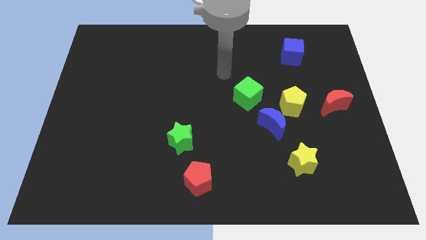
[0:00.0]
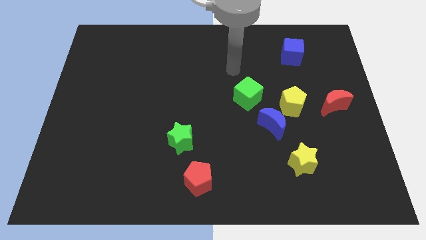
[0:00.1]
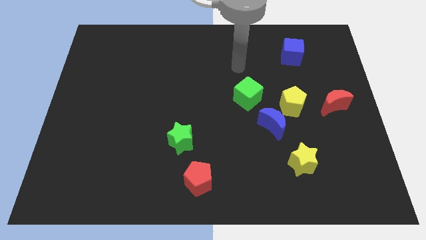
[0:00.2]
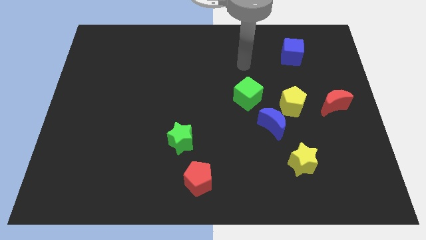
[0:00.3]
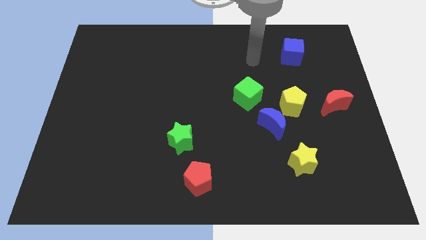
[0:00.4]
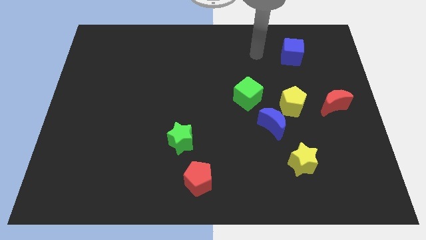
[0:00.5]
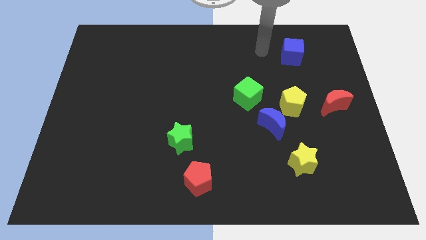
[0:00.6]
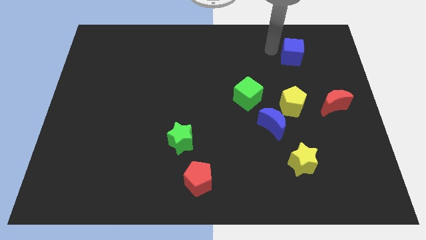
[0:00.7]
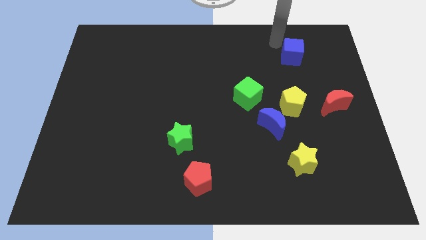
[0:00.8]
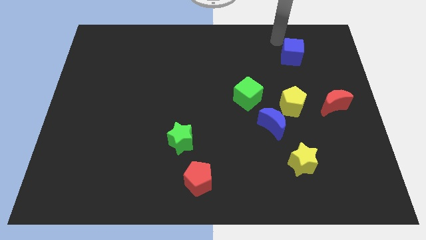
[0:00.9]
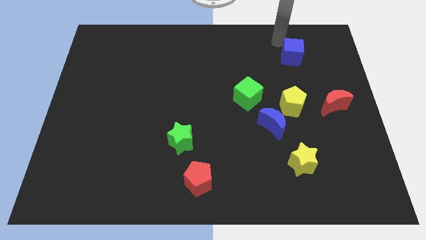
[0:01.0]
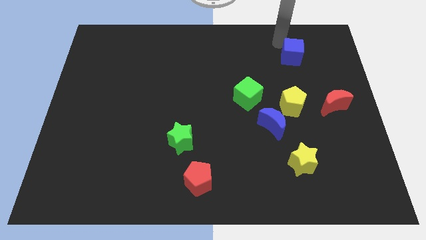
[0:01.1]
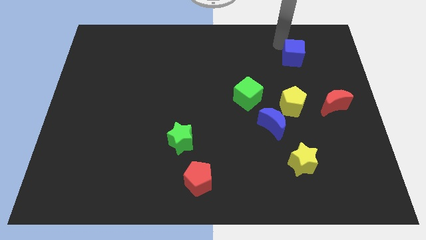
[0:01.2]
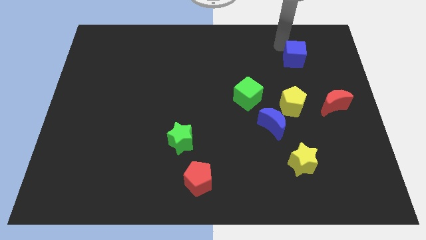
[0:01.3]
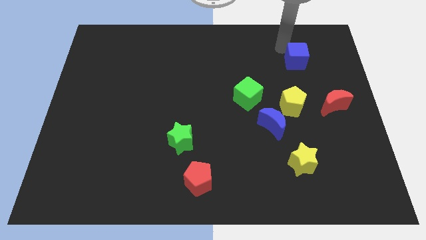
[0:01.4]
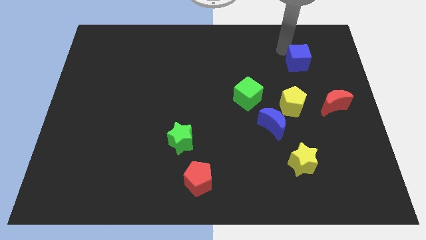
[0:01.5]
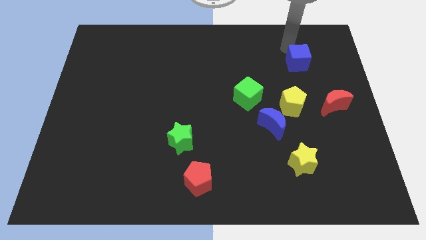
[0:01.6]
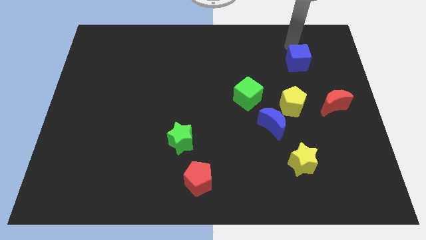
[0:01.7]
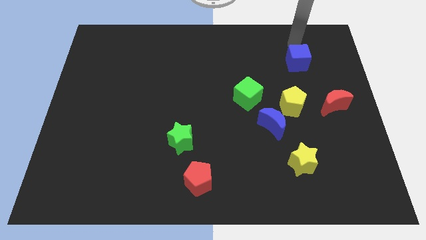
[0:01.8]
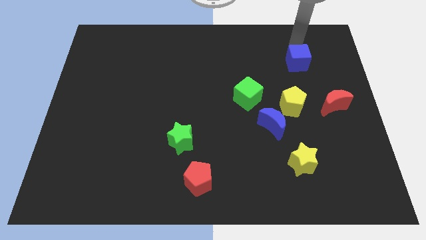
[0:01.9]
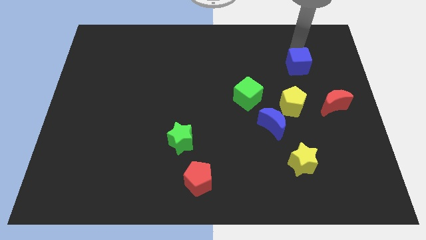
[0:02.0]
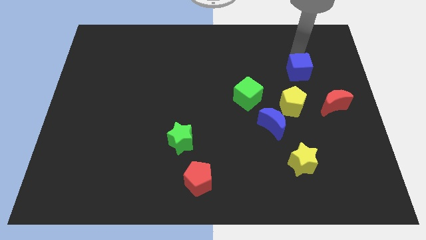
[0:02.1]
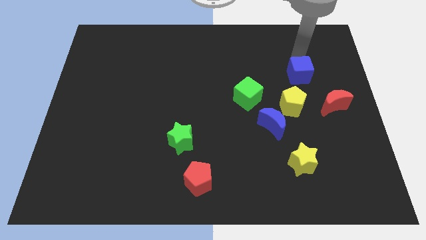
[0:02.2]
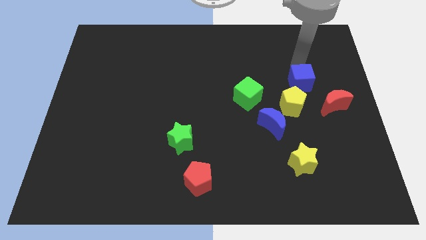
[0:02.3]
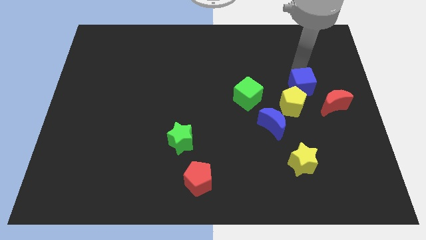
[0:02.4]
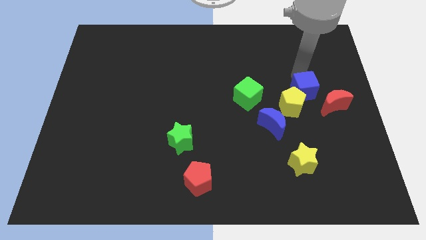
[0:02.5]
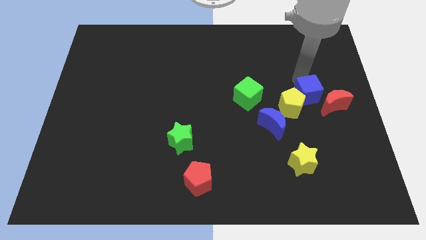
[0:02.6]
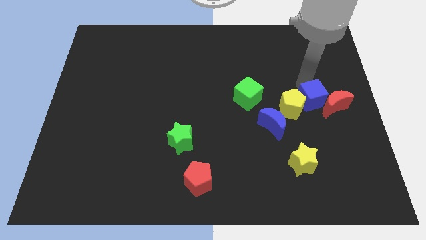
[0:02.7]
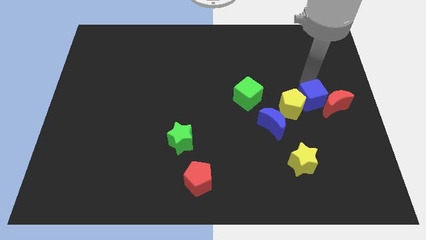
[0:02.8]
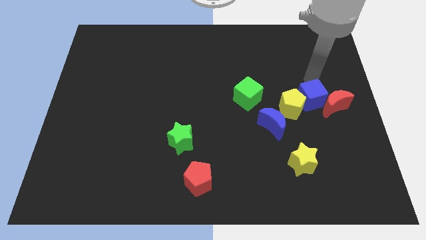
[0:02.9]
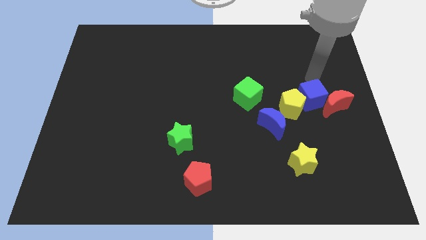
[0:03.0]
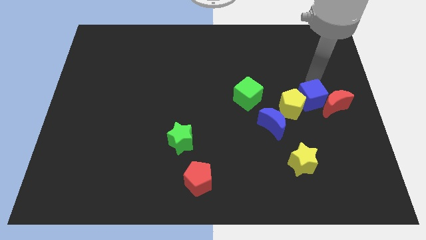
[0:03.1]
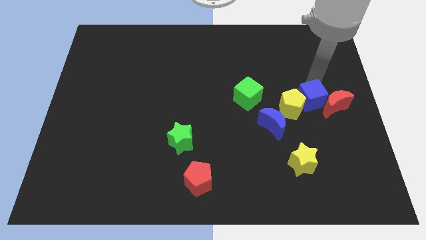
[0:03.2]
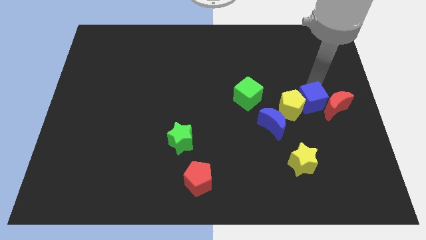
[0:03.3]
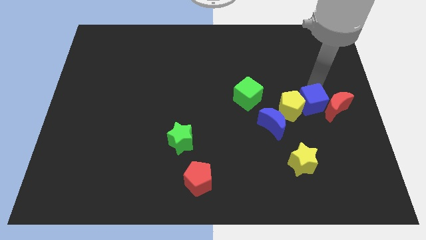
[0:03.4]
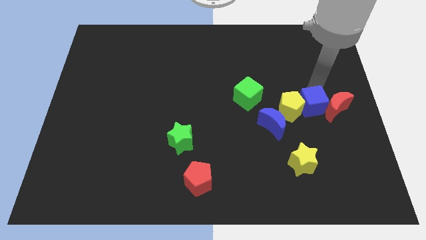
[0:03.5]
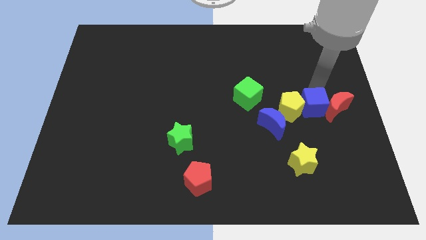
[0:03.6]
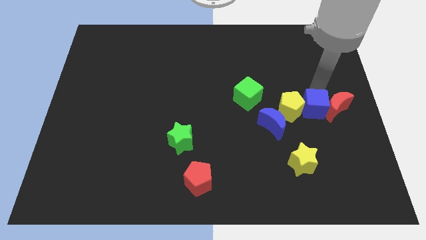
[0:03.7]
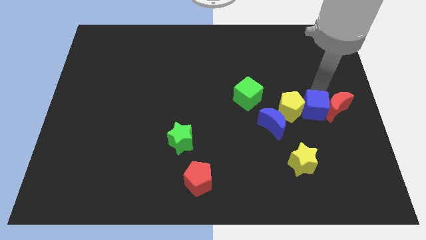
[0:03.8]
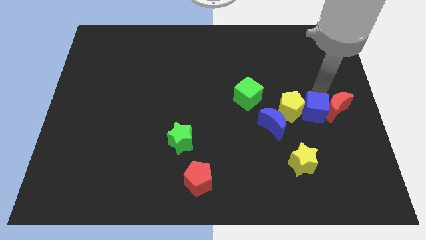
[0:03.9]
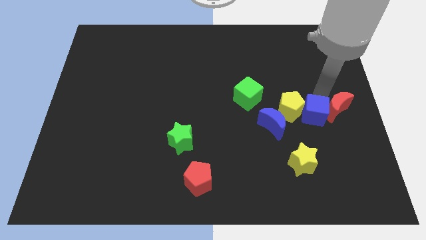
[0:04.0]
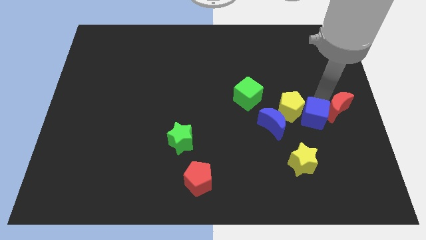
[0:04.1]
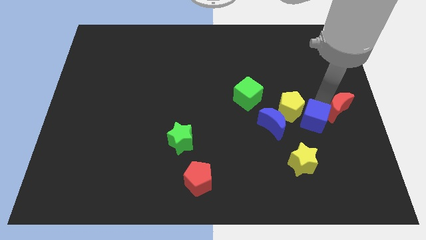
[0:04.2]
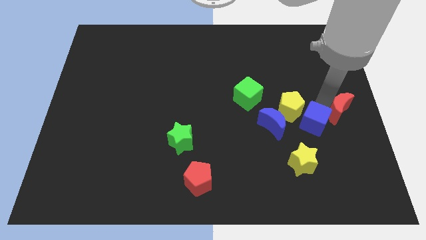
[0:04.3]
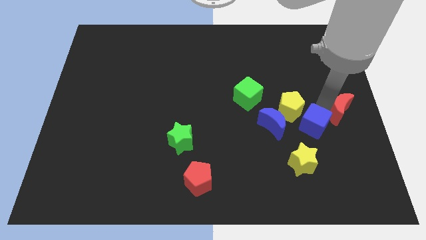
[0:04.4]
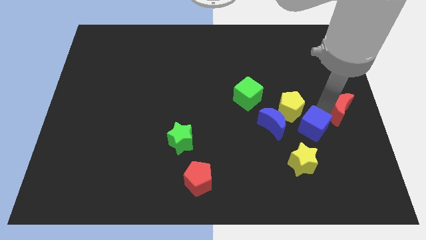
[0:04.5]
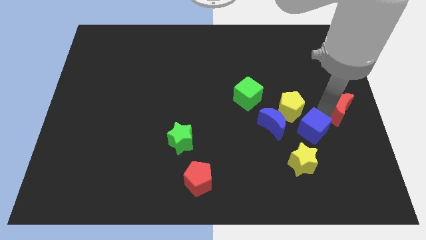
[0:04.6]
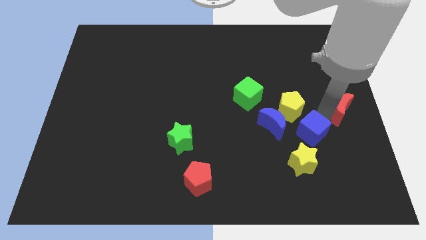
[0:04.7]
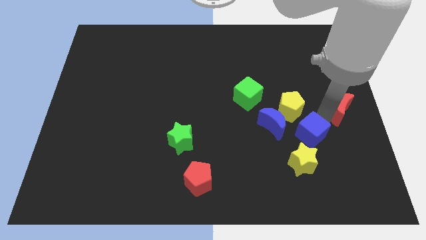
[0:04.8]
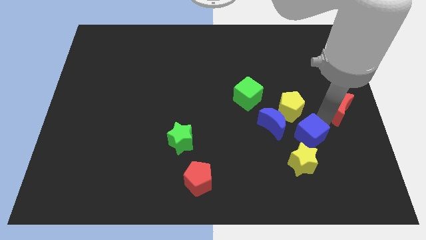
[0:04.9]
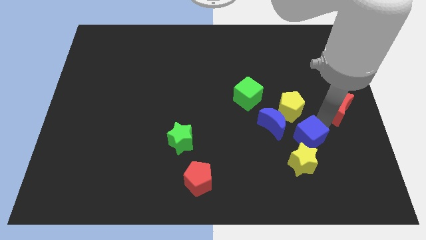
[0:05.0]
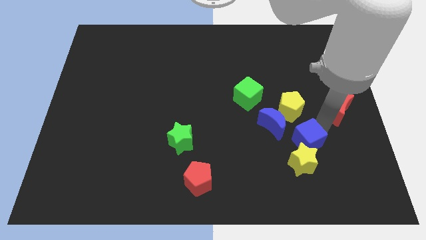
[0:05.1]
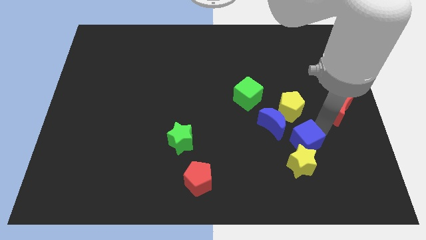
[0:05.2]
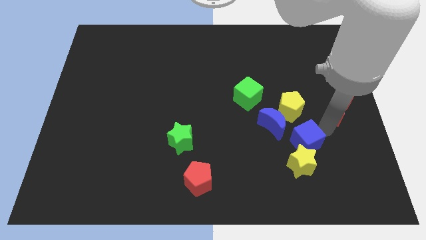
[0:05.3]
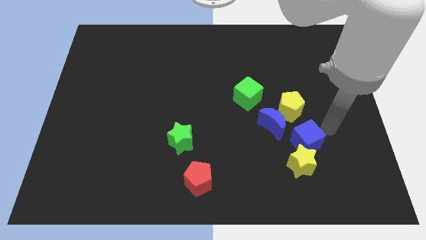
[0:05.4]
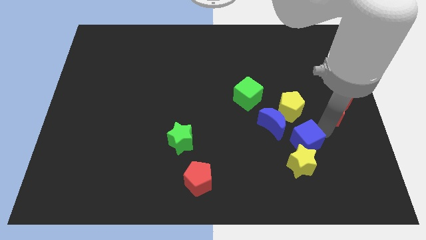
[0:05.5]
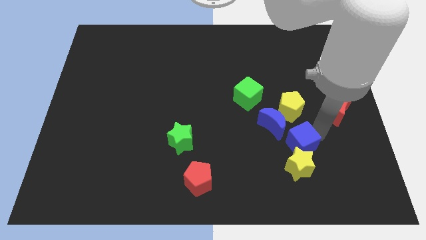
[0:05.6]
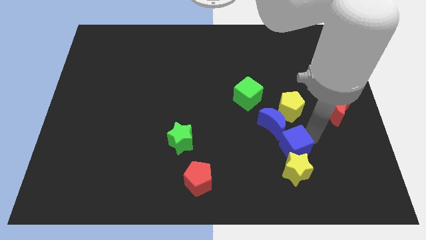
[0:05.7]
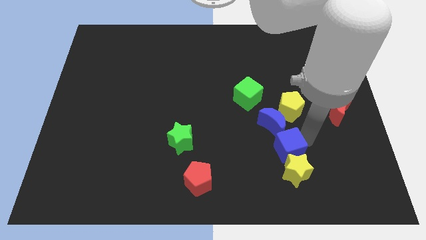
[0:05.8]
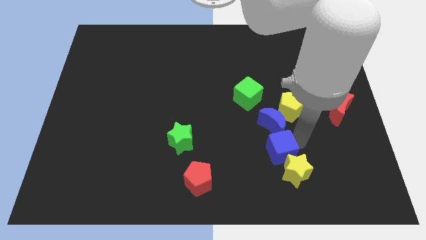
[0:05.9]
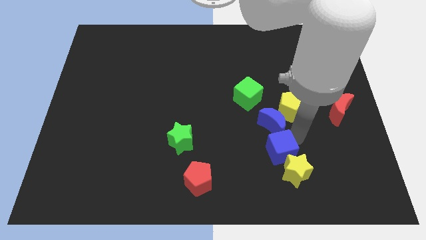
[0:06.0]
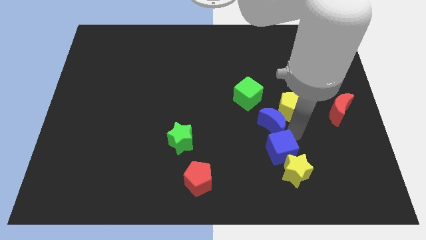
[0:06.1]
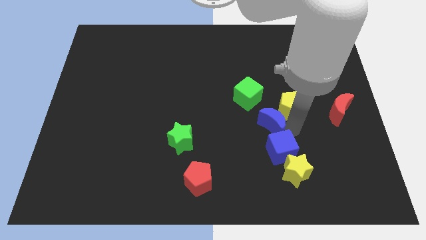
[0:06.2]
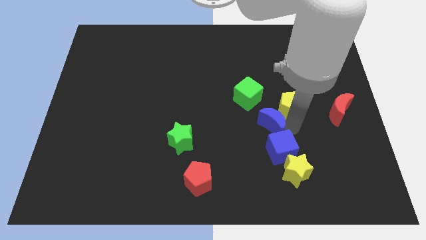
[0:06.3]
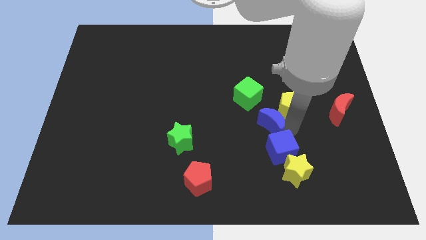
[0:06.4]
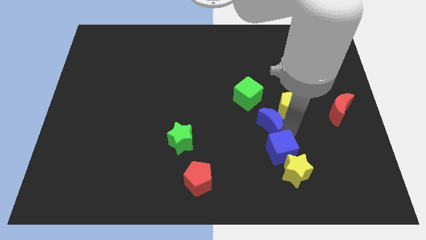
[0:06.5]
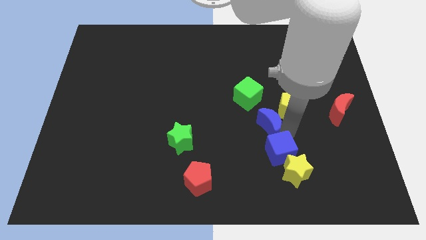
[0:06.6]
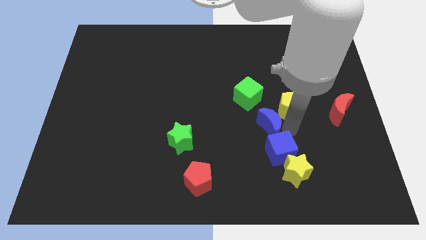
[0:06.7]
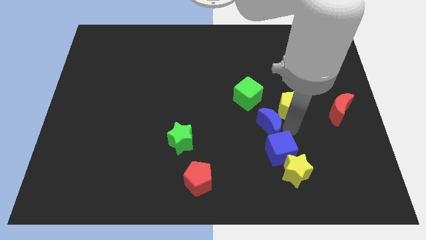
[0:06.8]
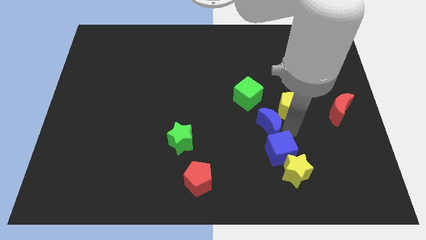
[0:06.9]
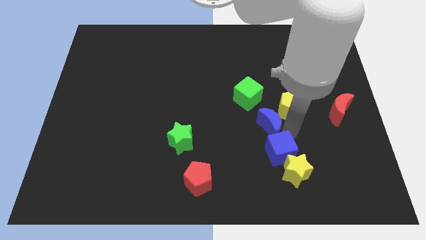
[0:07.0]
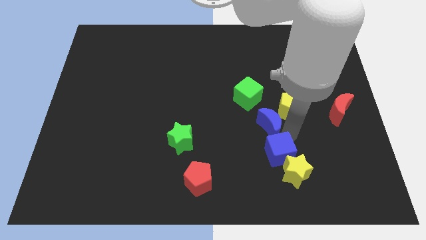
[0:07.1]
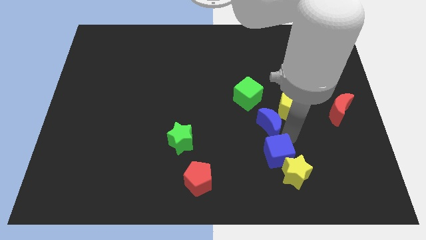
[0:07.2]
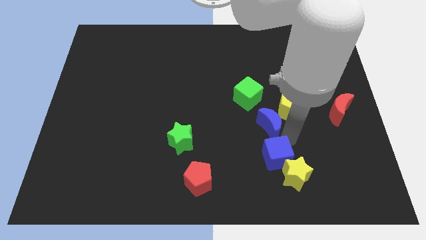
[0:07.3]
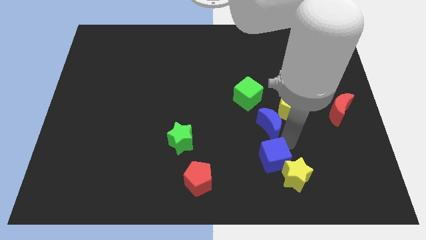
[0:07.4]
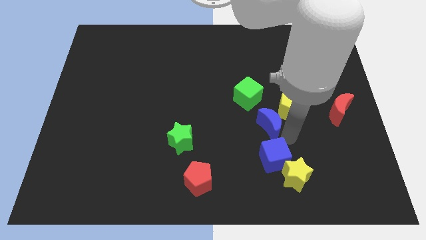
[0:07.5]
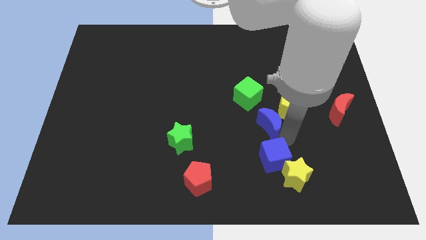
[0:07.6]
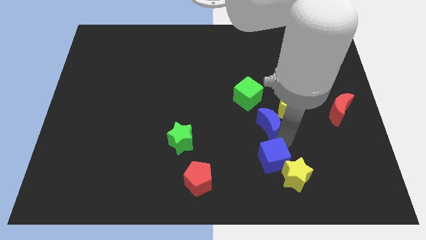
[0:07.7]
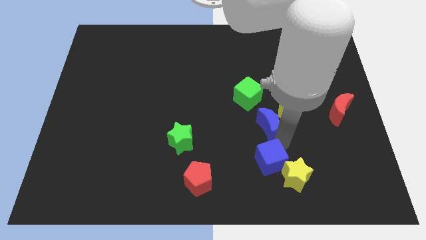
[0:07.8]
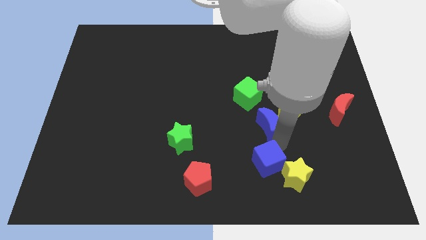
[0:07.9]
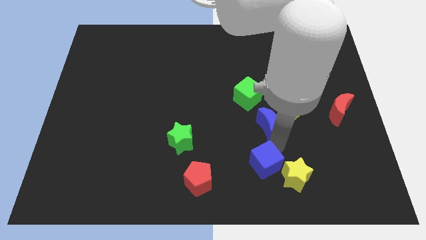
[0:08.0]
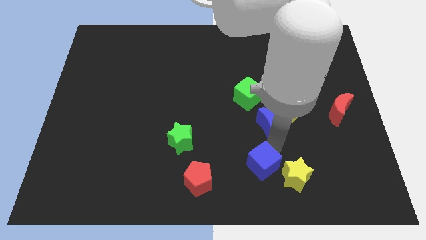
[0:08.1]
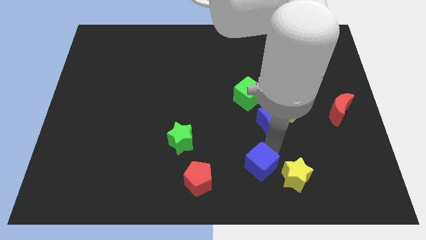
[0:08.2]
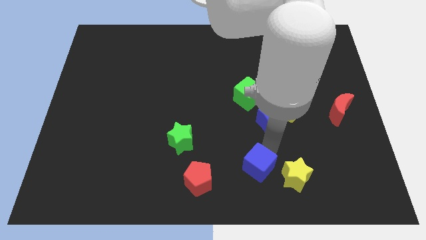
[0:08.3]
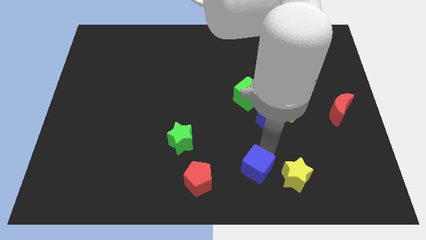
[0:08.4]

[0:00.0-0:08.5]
move the blue cube to the bottom
